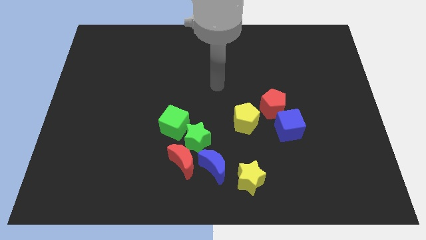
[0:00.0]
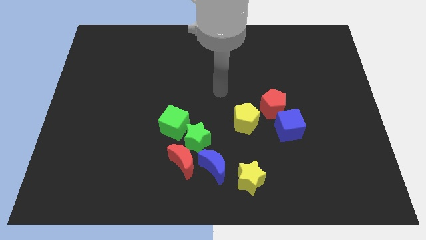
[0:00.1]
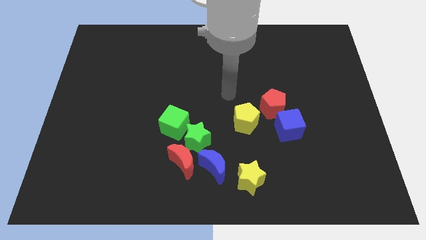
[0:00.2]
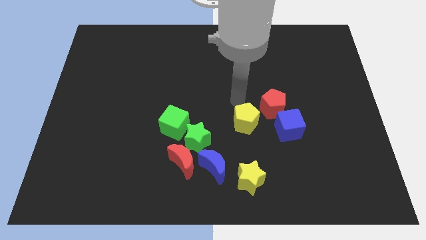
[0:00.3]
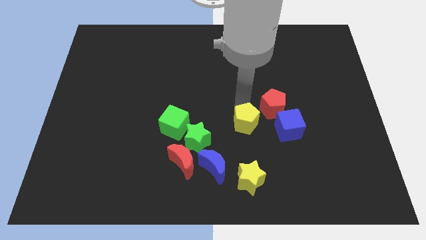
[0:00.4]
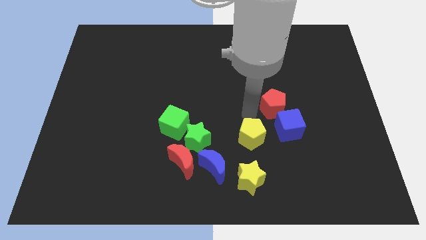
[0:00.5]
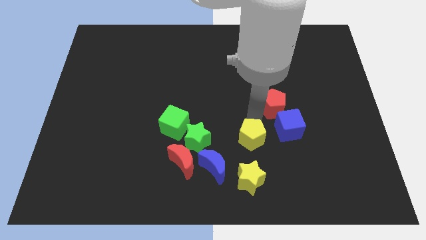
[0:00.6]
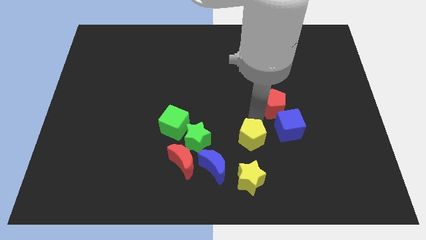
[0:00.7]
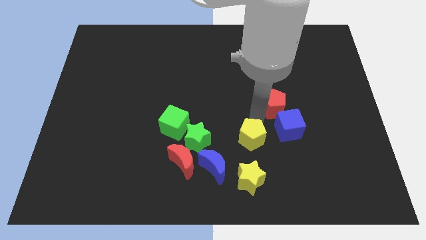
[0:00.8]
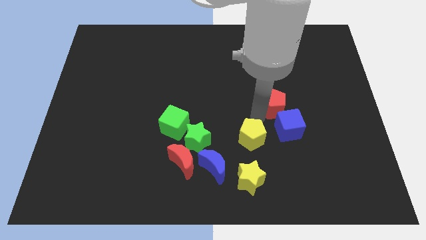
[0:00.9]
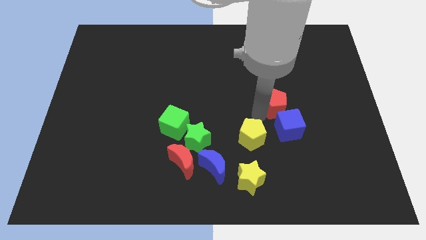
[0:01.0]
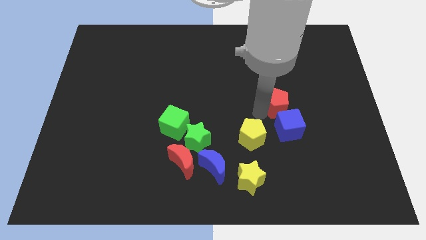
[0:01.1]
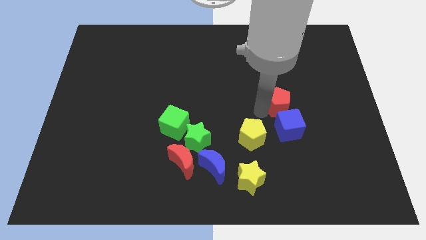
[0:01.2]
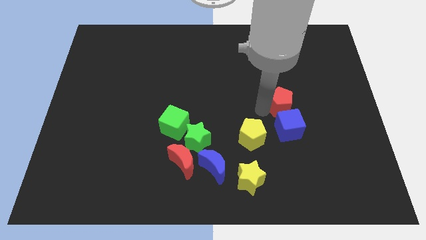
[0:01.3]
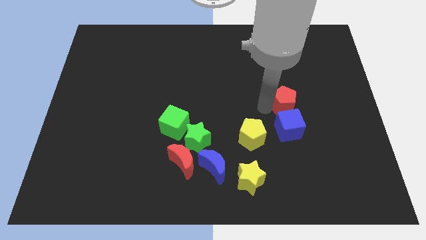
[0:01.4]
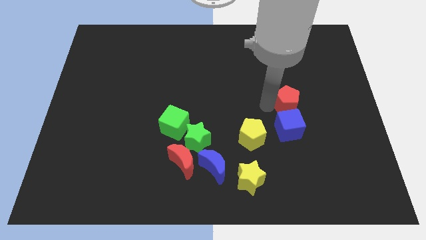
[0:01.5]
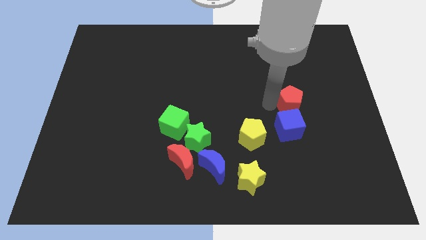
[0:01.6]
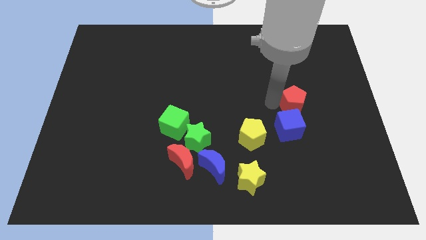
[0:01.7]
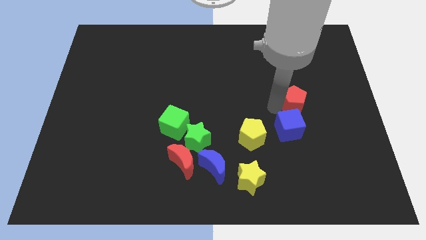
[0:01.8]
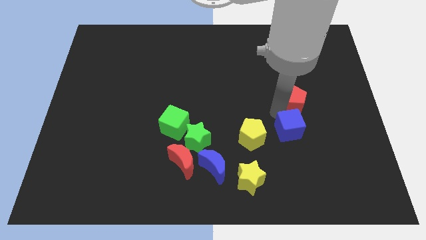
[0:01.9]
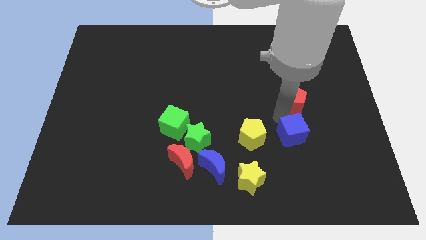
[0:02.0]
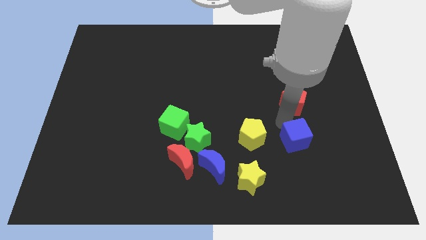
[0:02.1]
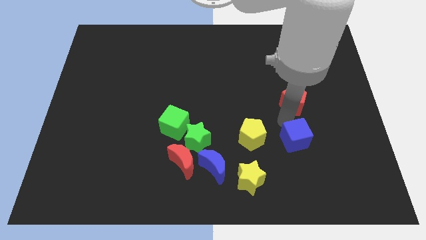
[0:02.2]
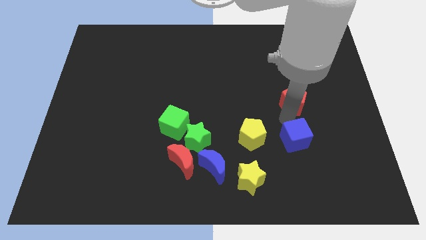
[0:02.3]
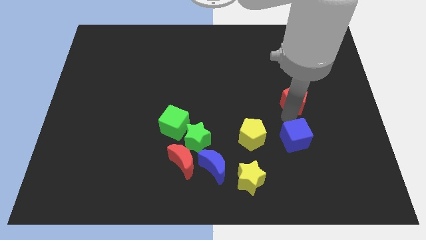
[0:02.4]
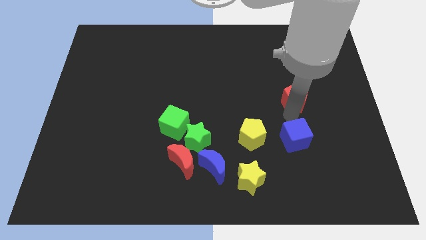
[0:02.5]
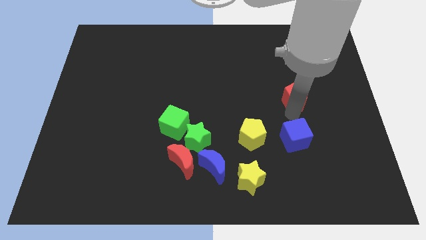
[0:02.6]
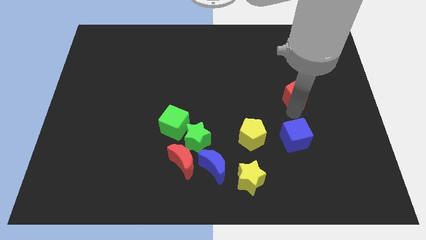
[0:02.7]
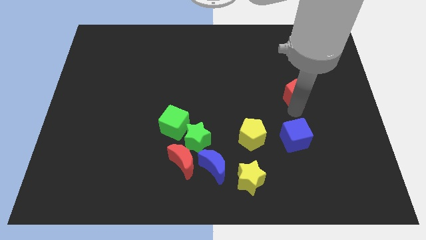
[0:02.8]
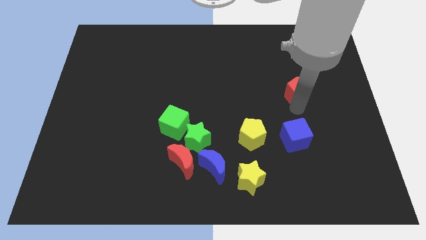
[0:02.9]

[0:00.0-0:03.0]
move the red pentagon slightly up and right

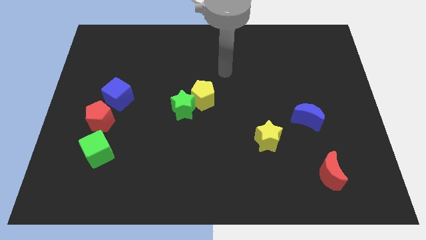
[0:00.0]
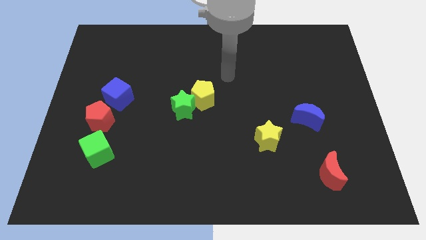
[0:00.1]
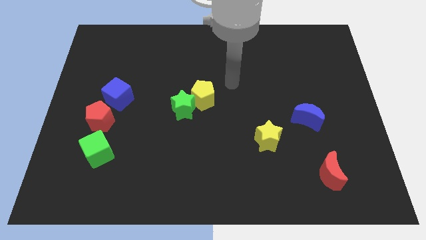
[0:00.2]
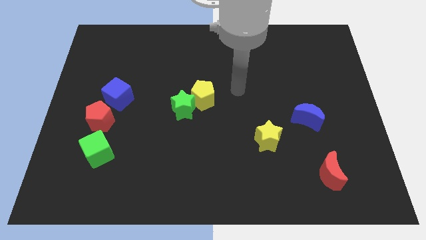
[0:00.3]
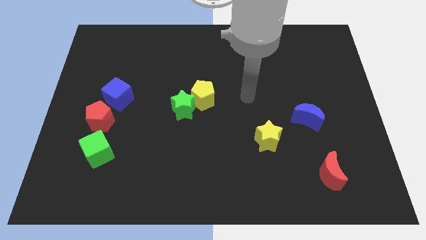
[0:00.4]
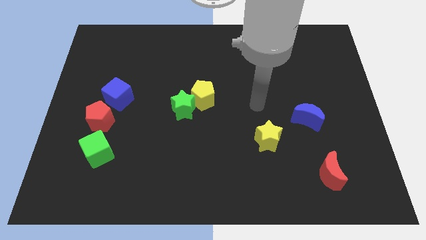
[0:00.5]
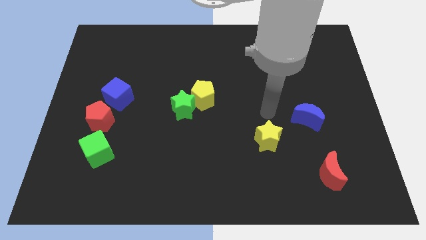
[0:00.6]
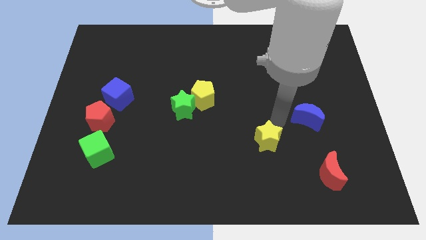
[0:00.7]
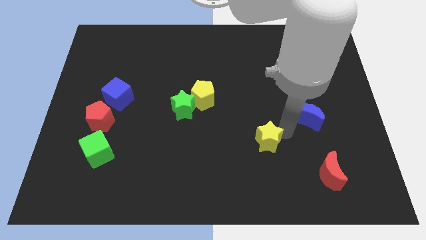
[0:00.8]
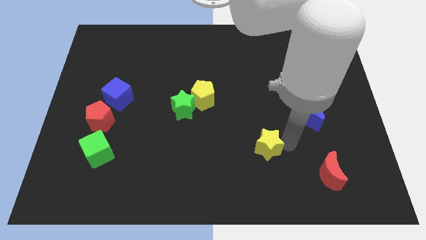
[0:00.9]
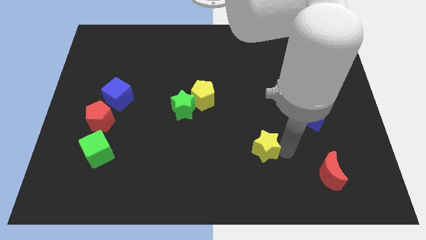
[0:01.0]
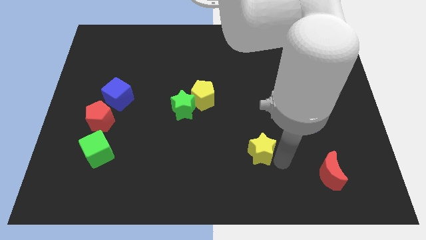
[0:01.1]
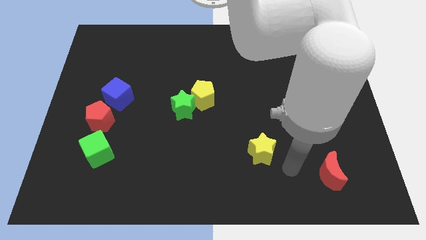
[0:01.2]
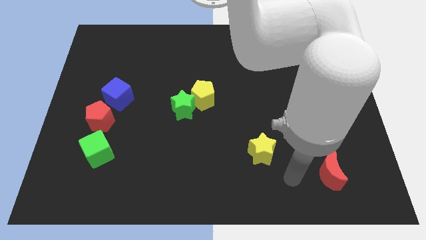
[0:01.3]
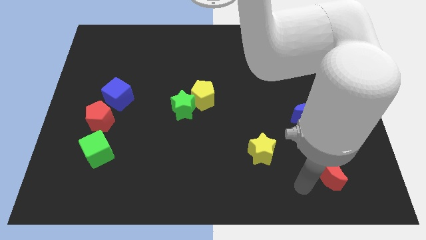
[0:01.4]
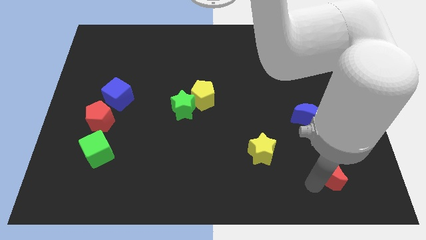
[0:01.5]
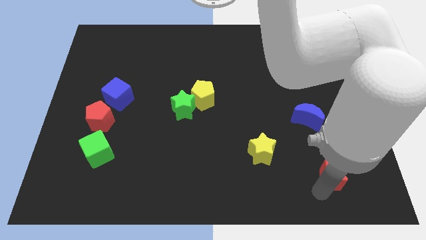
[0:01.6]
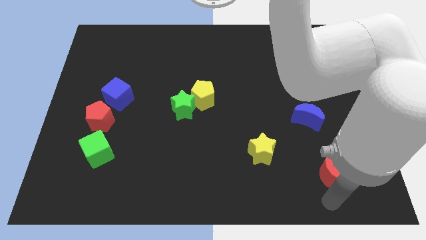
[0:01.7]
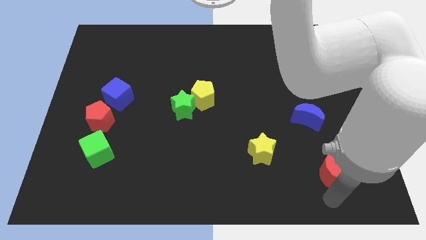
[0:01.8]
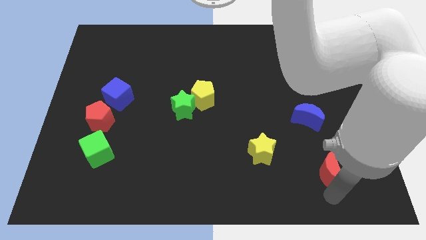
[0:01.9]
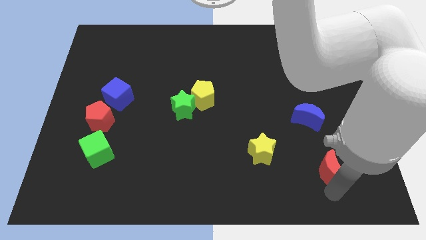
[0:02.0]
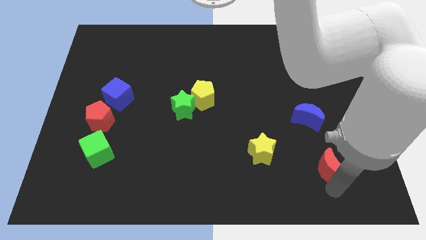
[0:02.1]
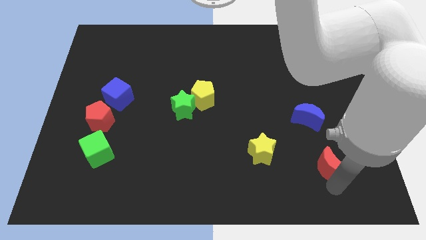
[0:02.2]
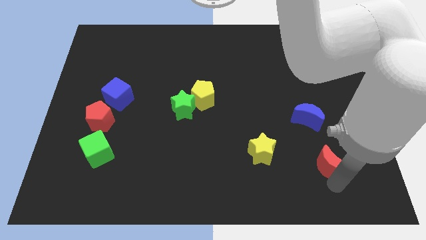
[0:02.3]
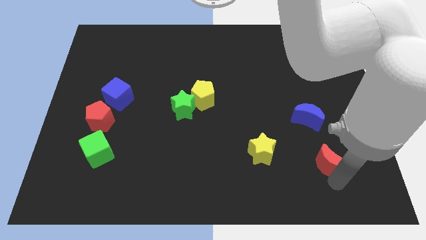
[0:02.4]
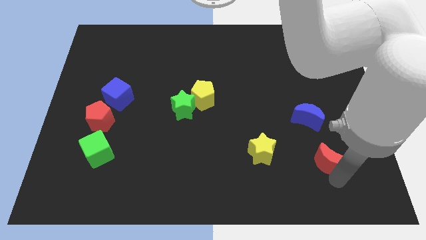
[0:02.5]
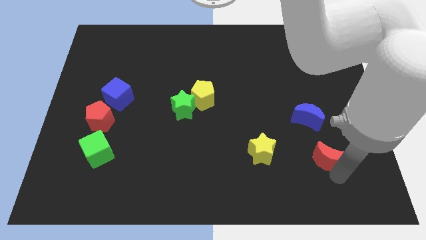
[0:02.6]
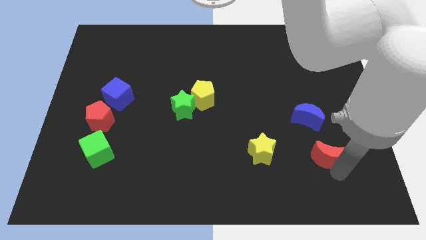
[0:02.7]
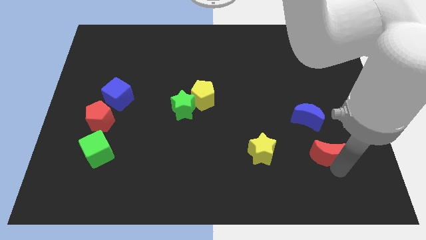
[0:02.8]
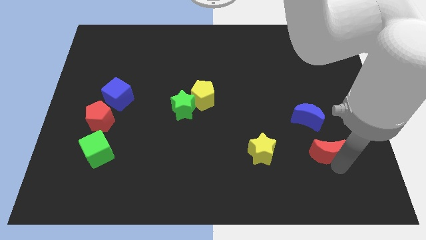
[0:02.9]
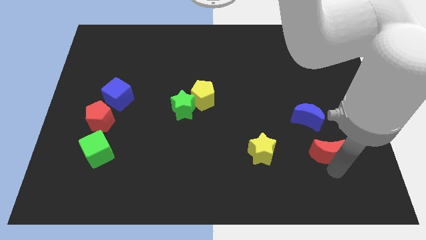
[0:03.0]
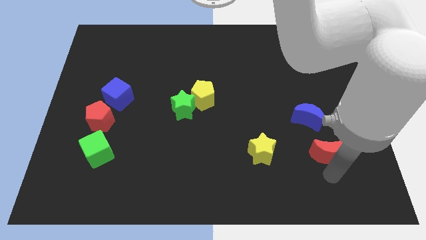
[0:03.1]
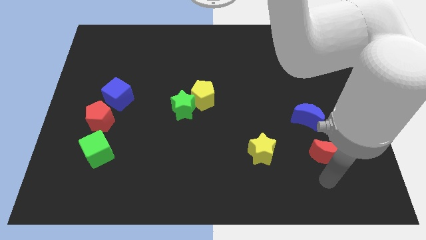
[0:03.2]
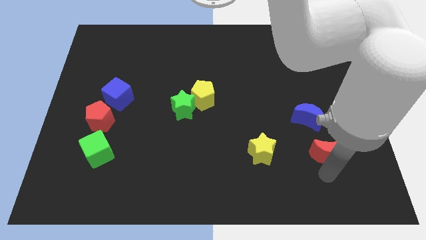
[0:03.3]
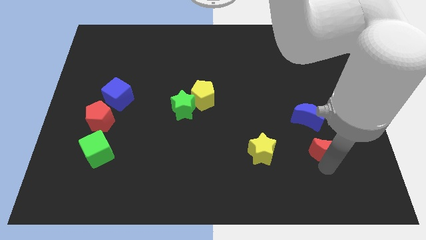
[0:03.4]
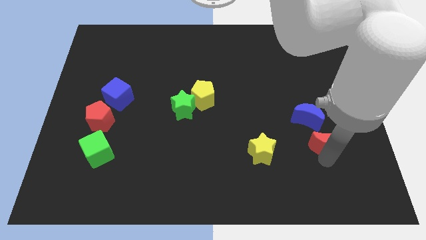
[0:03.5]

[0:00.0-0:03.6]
slightly push the red moon up

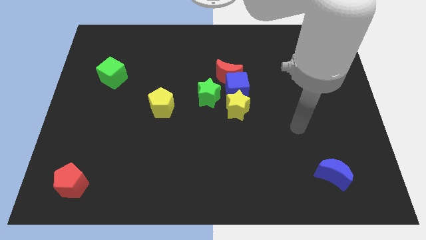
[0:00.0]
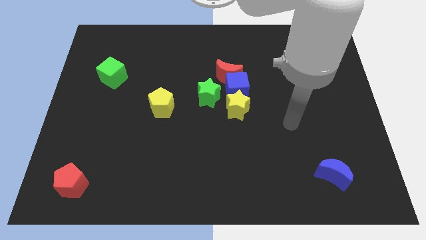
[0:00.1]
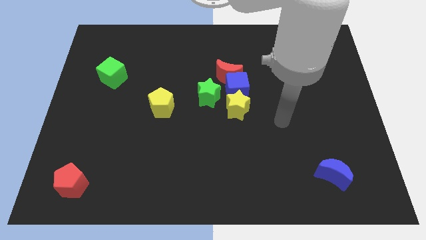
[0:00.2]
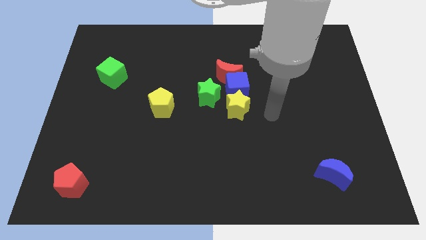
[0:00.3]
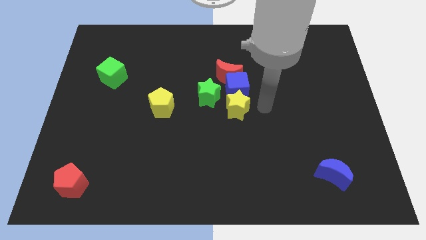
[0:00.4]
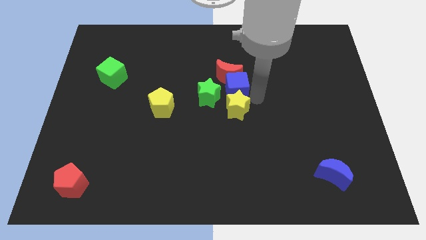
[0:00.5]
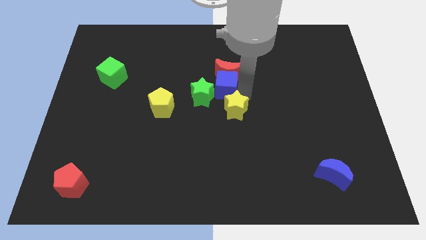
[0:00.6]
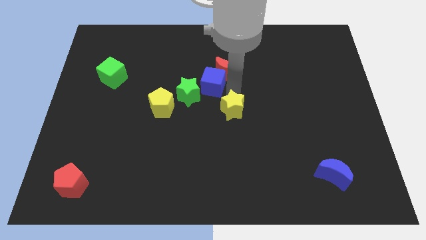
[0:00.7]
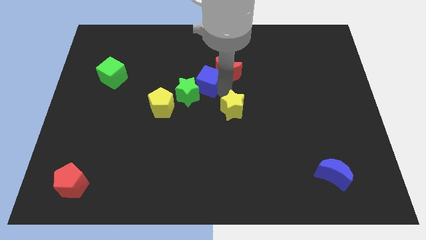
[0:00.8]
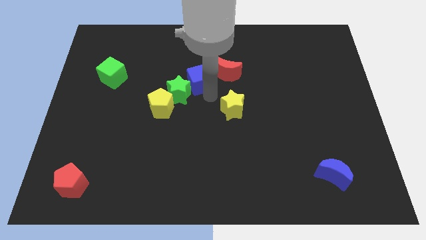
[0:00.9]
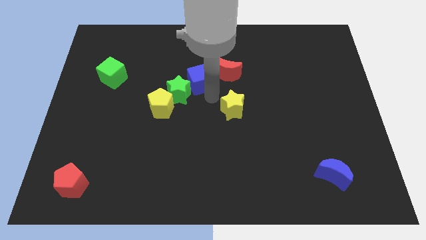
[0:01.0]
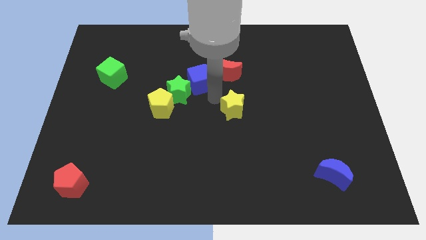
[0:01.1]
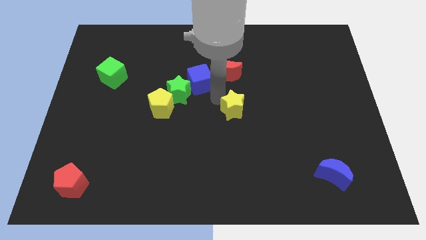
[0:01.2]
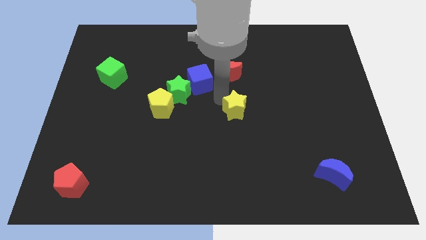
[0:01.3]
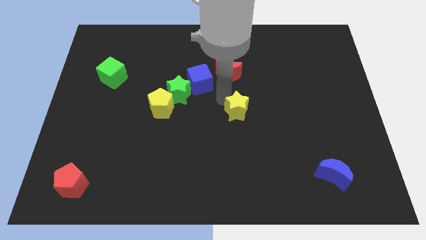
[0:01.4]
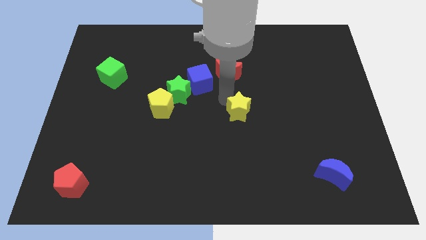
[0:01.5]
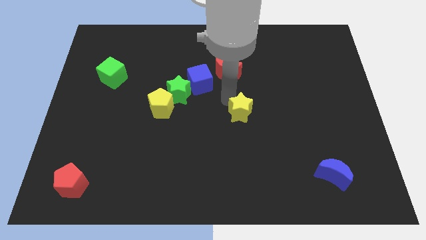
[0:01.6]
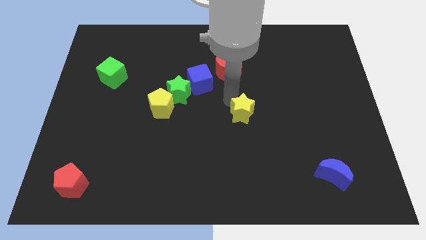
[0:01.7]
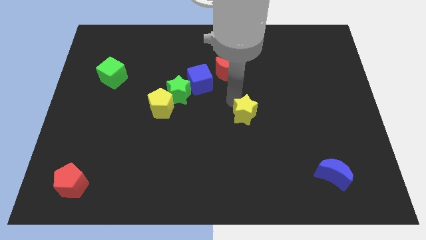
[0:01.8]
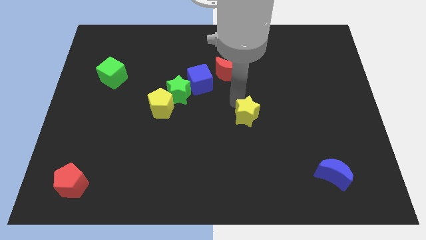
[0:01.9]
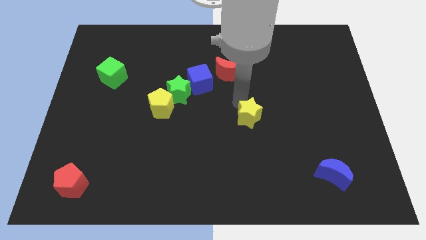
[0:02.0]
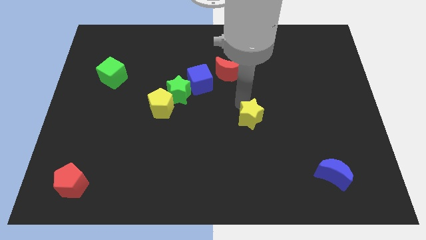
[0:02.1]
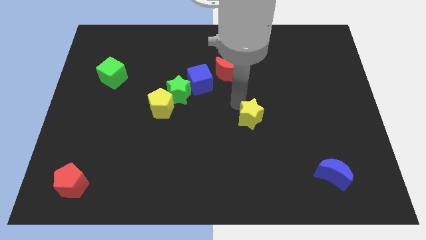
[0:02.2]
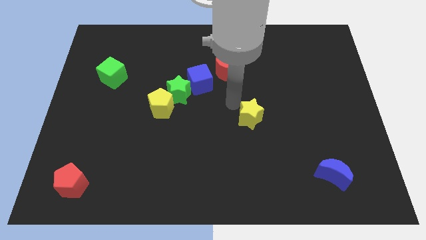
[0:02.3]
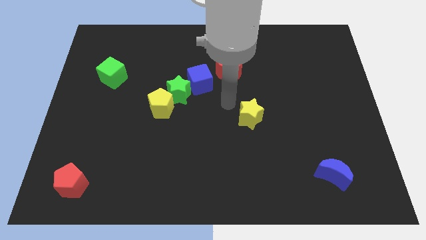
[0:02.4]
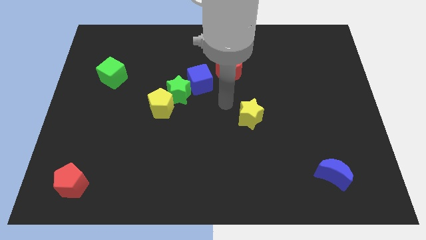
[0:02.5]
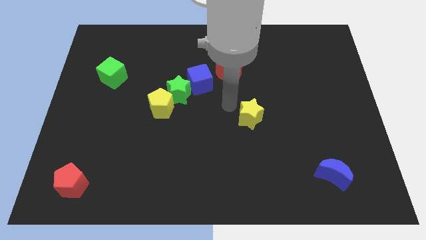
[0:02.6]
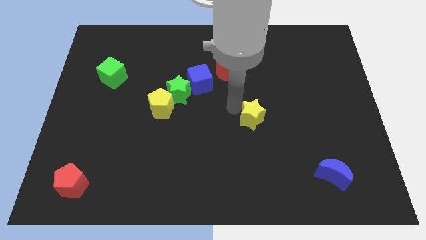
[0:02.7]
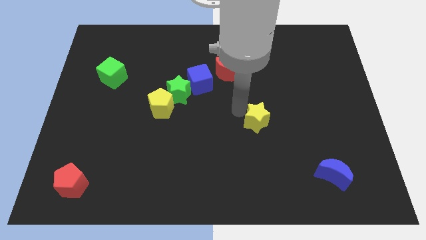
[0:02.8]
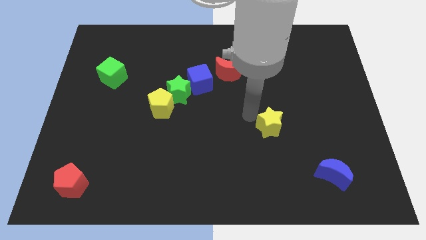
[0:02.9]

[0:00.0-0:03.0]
slightly push the yellow star down and to the right diagonally
